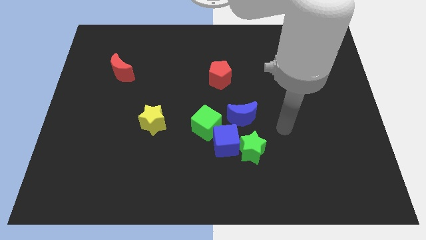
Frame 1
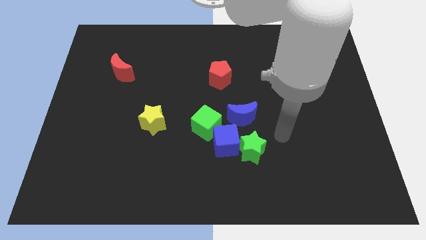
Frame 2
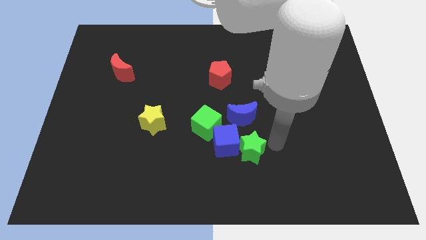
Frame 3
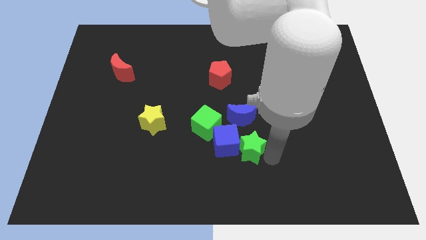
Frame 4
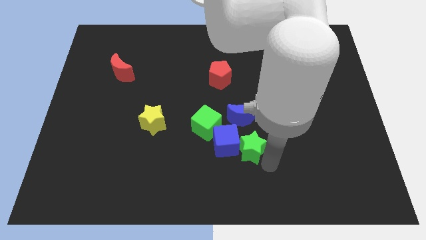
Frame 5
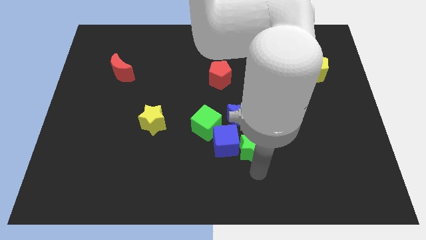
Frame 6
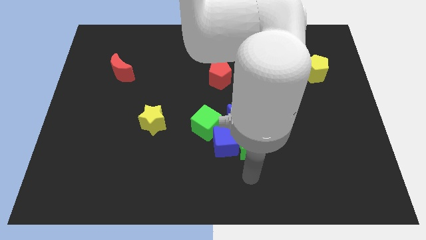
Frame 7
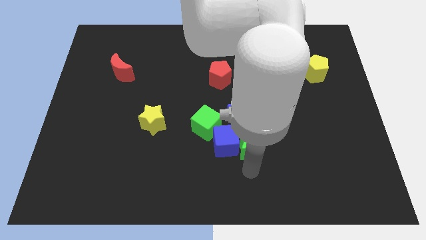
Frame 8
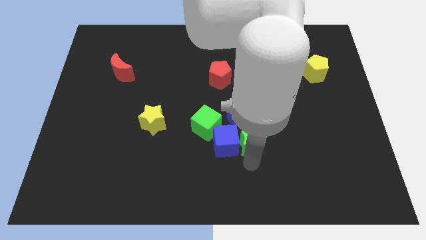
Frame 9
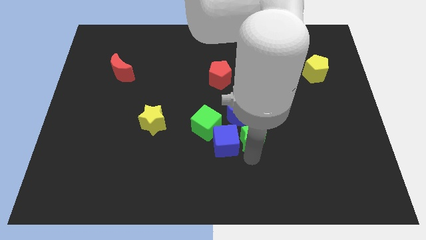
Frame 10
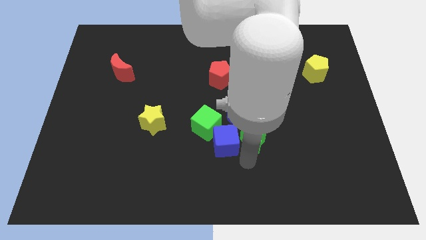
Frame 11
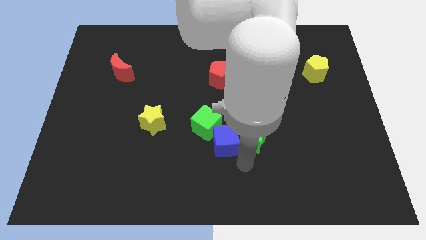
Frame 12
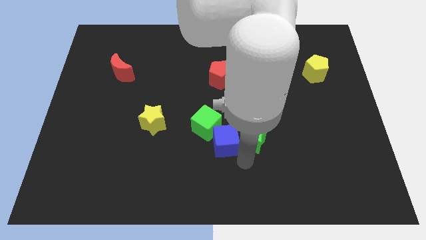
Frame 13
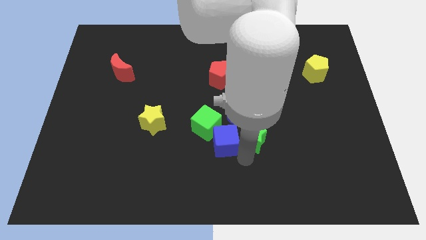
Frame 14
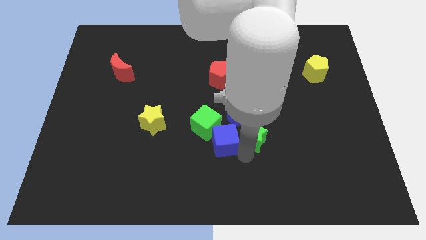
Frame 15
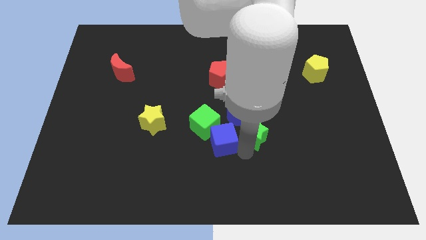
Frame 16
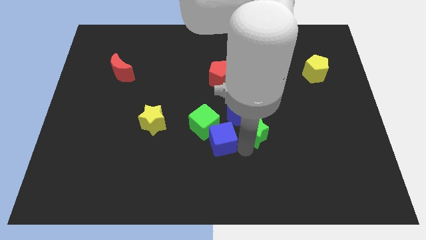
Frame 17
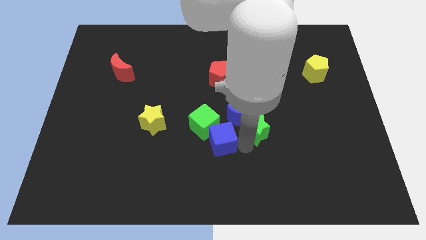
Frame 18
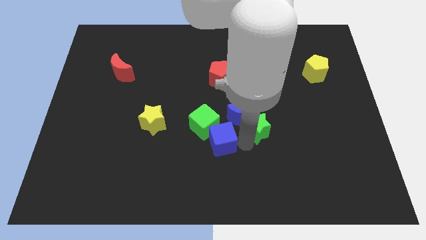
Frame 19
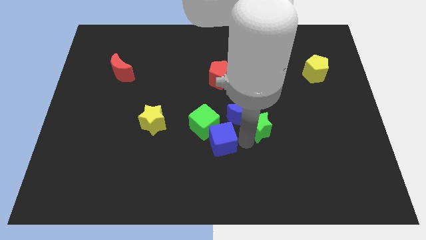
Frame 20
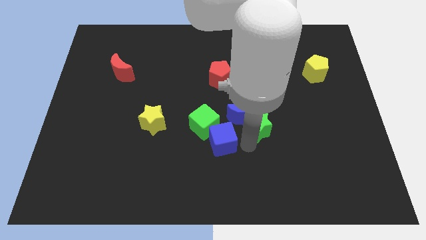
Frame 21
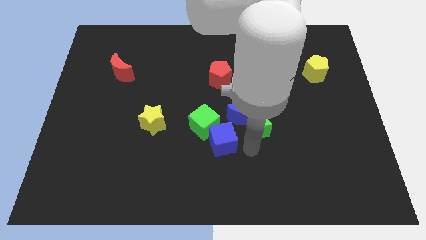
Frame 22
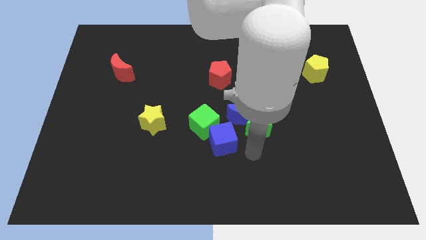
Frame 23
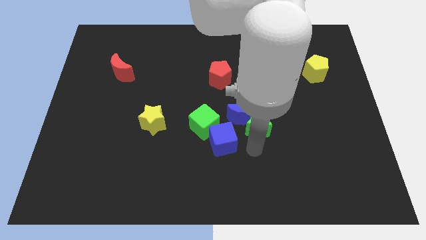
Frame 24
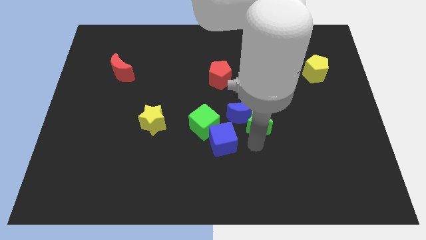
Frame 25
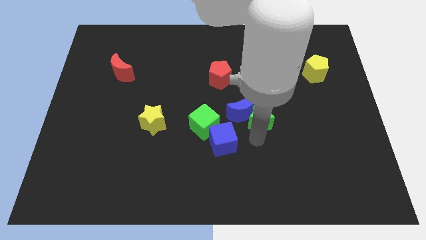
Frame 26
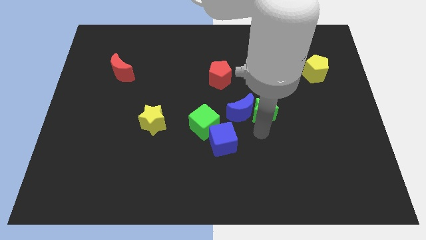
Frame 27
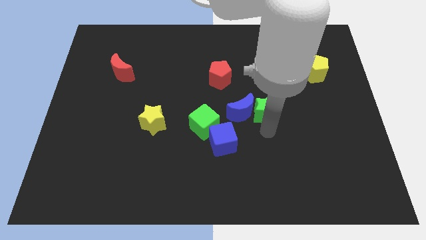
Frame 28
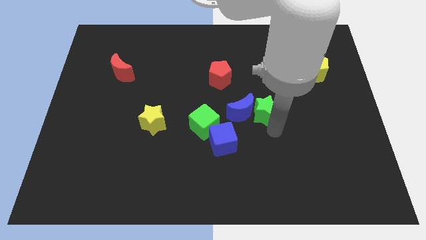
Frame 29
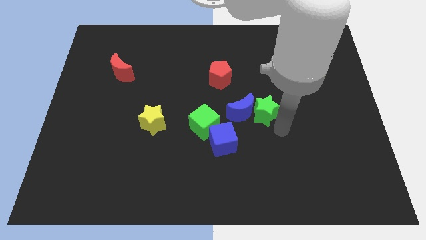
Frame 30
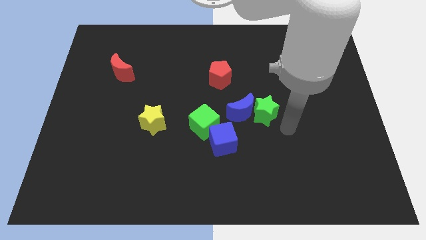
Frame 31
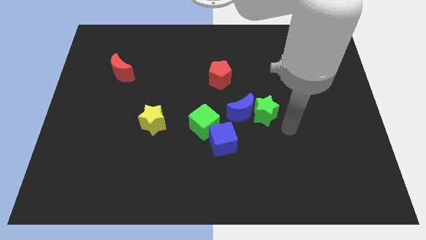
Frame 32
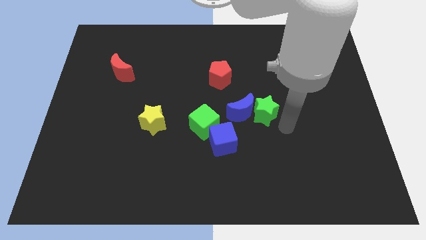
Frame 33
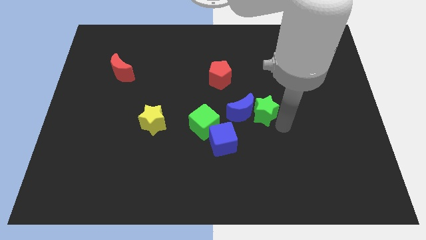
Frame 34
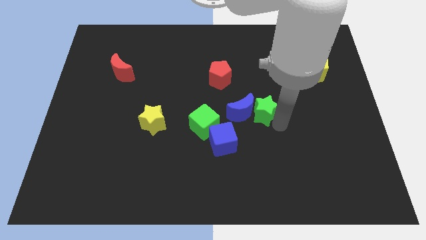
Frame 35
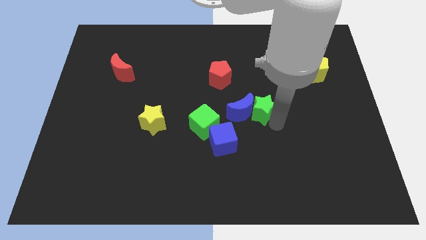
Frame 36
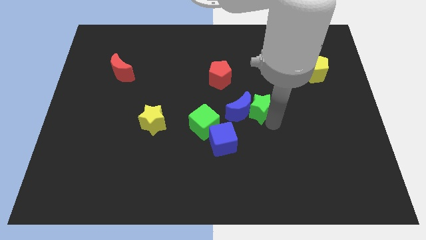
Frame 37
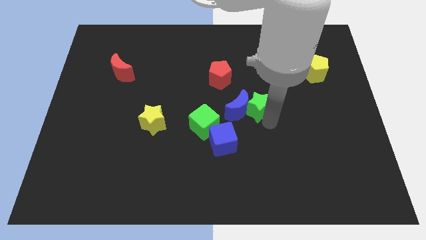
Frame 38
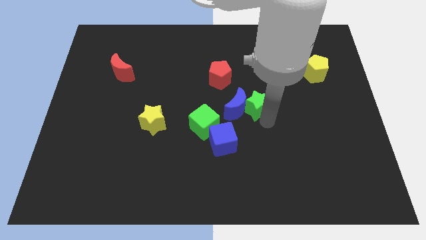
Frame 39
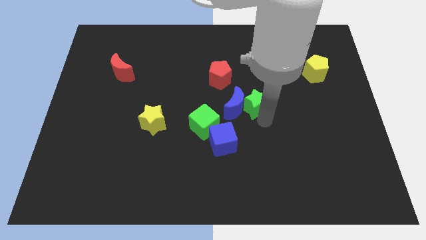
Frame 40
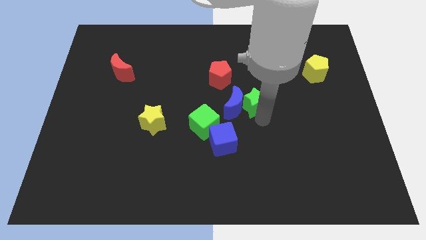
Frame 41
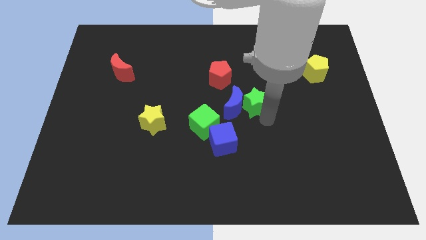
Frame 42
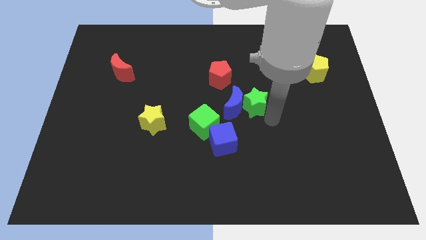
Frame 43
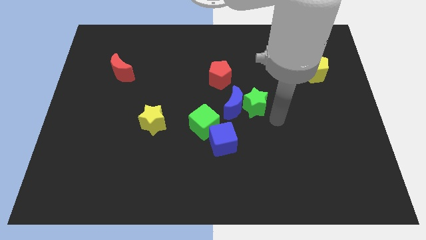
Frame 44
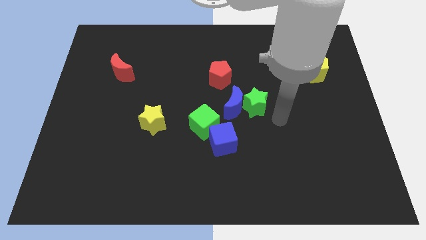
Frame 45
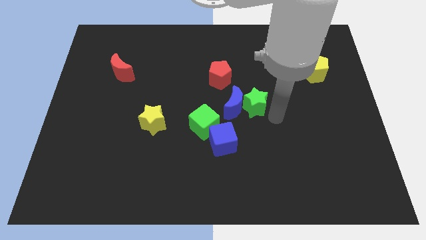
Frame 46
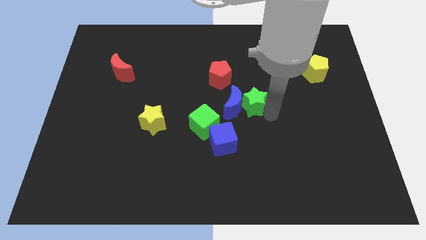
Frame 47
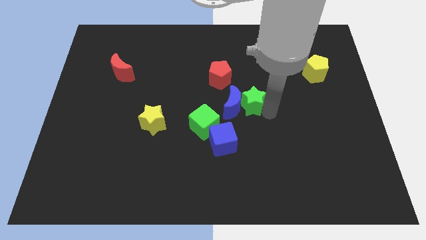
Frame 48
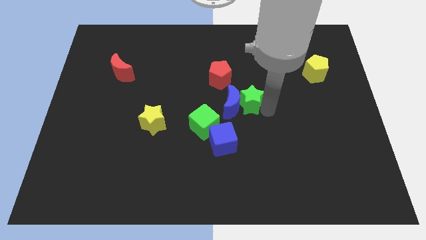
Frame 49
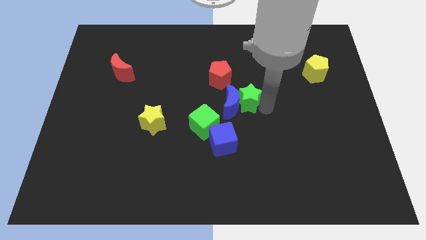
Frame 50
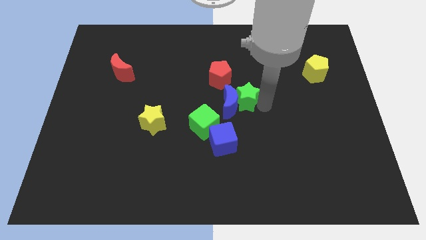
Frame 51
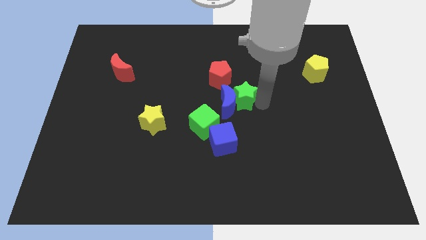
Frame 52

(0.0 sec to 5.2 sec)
push the green star upwards and to the left diagonally a bit

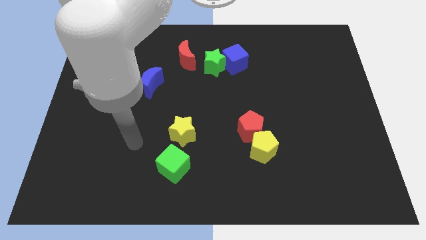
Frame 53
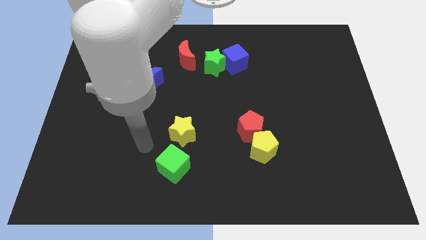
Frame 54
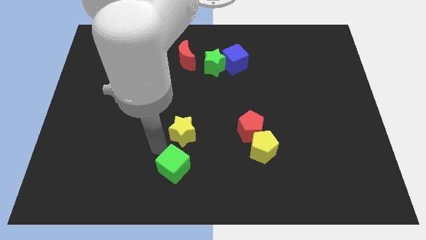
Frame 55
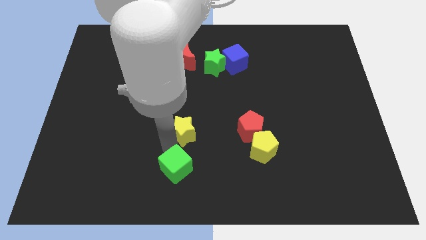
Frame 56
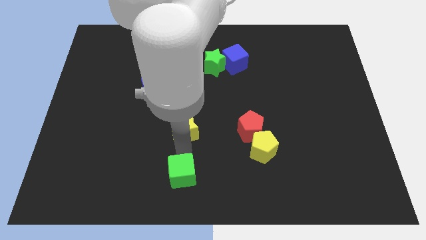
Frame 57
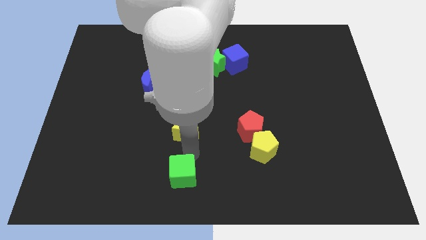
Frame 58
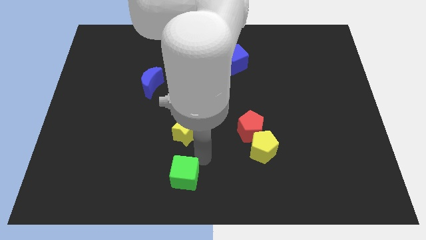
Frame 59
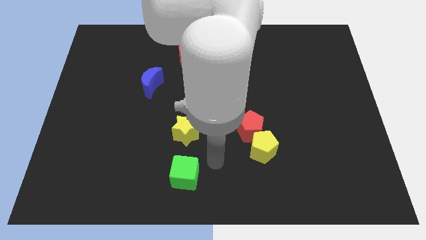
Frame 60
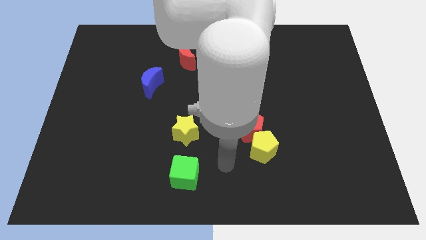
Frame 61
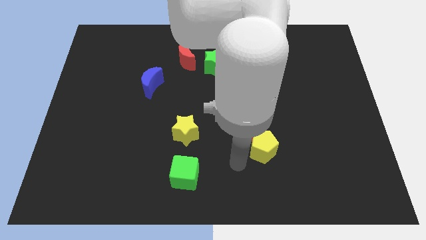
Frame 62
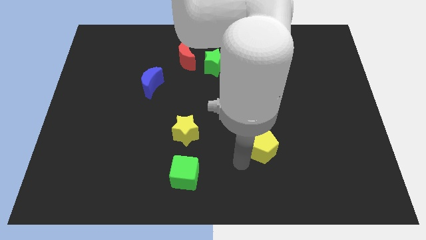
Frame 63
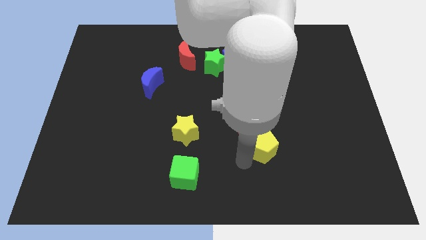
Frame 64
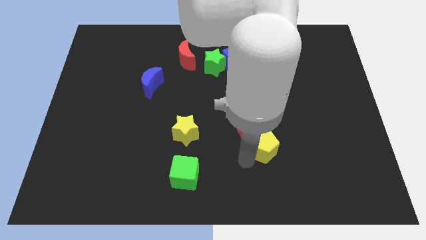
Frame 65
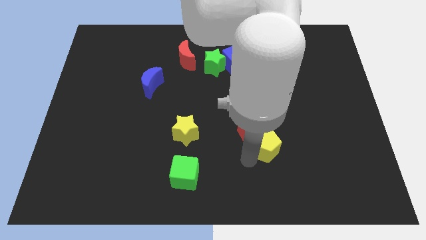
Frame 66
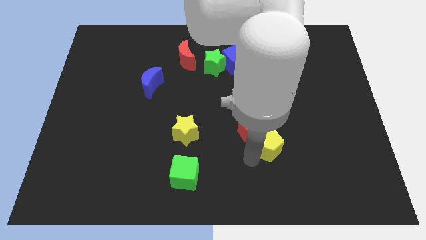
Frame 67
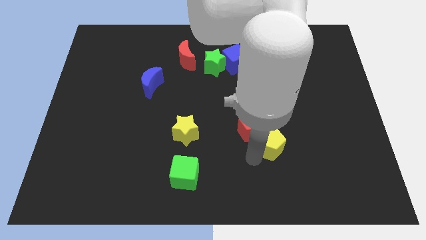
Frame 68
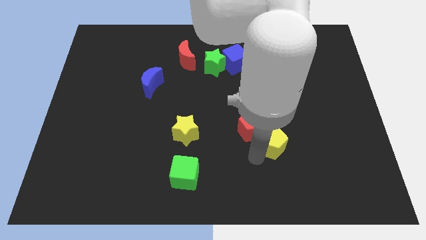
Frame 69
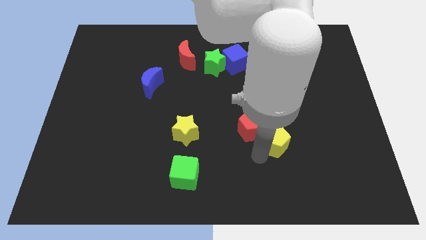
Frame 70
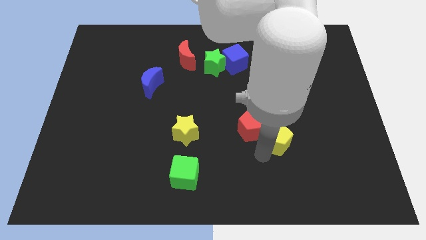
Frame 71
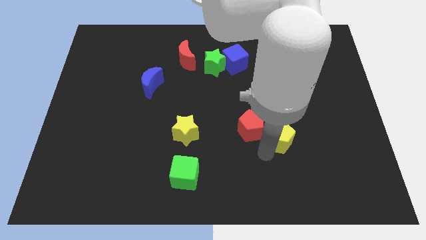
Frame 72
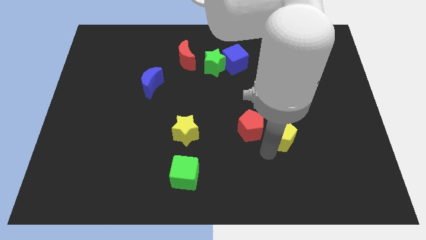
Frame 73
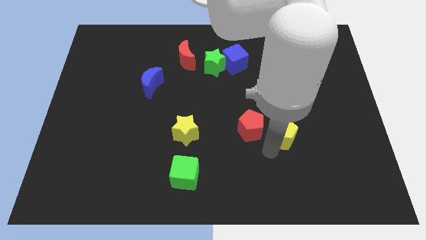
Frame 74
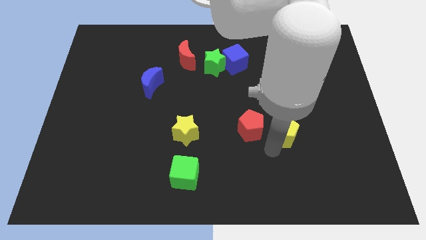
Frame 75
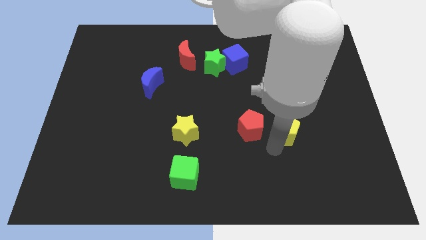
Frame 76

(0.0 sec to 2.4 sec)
slide the yellow pentagon upwards and then to the right a bit

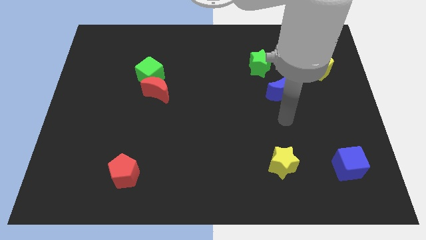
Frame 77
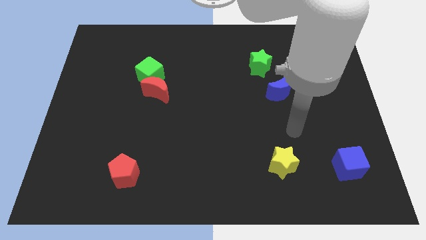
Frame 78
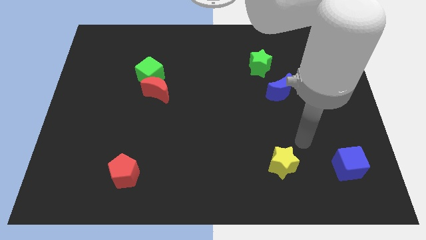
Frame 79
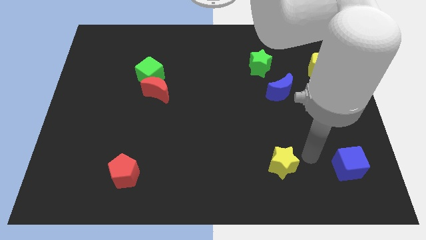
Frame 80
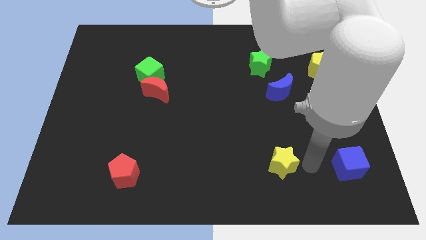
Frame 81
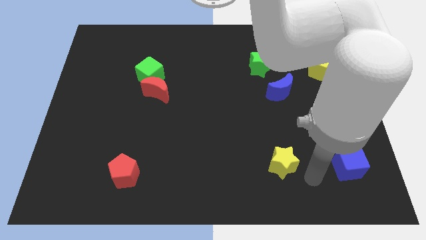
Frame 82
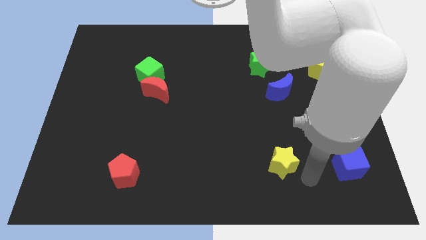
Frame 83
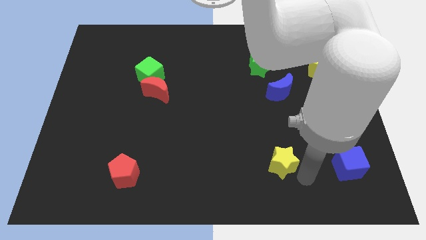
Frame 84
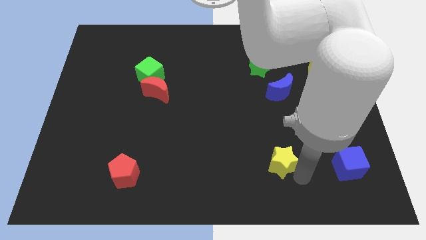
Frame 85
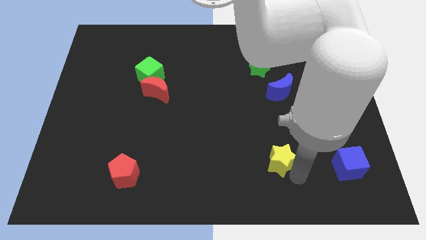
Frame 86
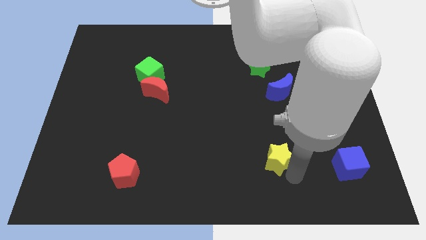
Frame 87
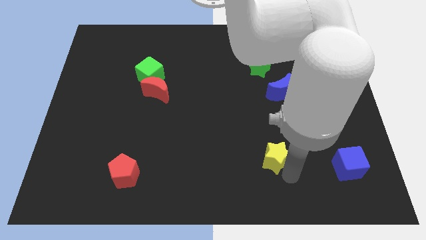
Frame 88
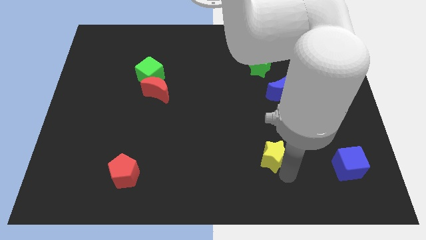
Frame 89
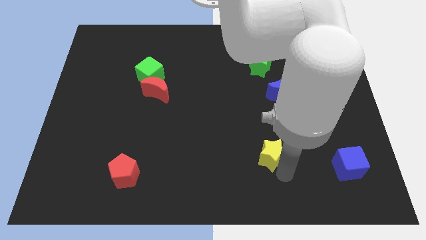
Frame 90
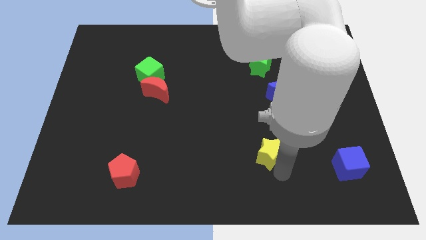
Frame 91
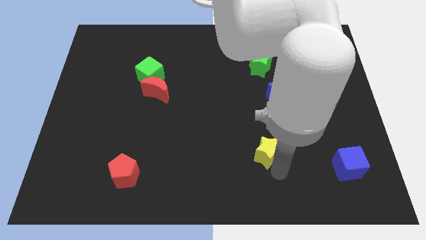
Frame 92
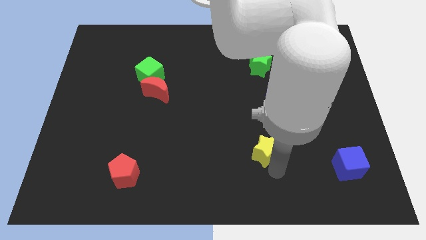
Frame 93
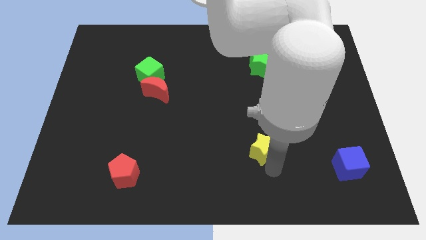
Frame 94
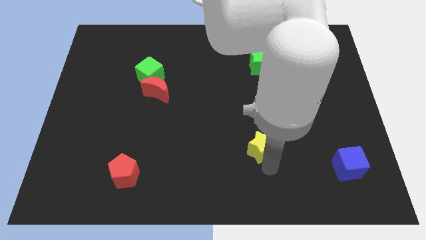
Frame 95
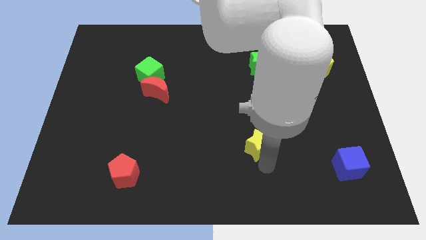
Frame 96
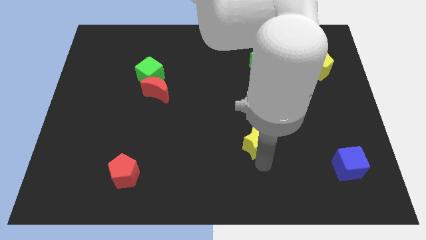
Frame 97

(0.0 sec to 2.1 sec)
push the yellow star upwards and to the left diagonally a little bit
